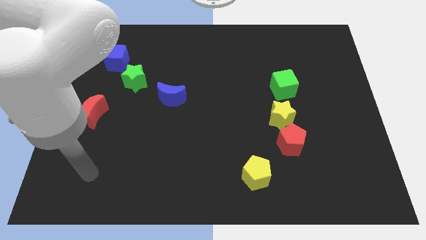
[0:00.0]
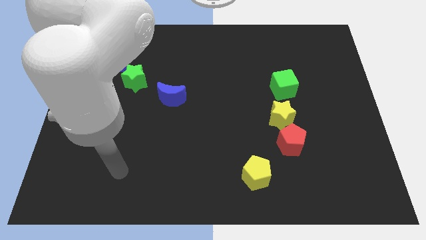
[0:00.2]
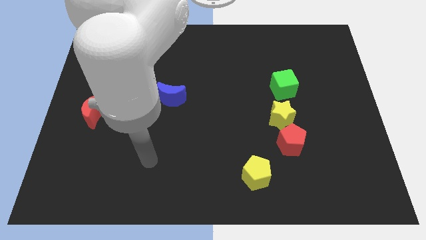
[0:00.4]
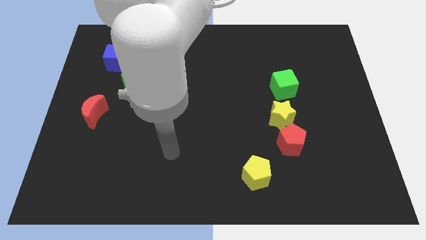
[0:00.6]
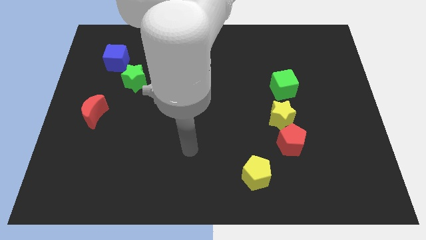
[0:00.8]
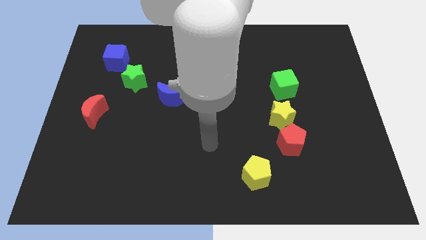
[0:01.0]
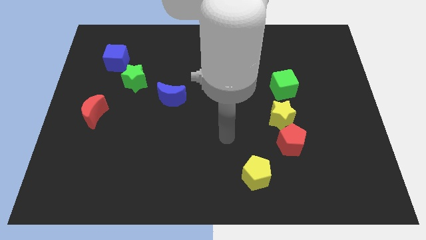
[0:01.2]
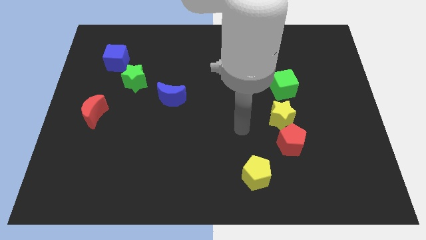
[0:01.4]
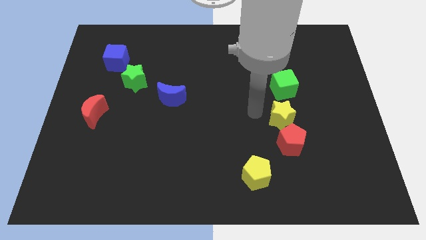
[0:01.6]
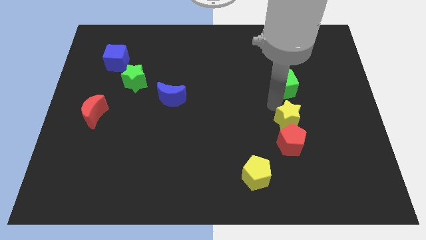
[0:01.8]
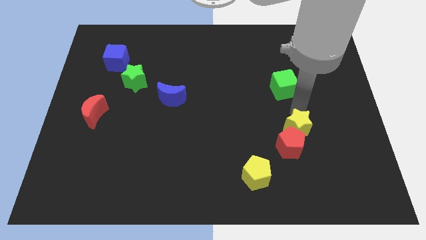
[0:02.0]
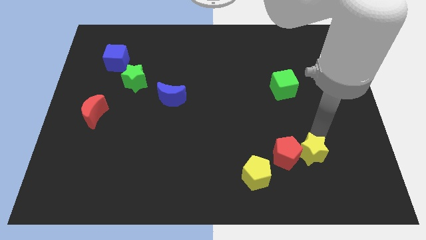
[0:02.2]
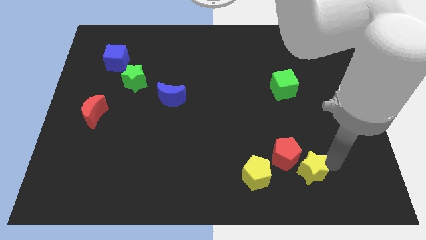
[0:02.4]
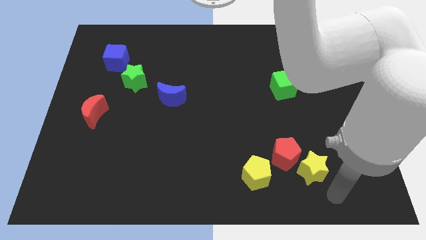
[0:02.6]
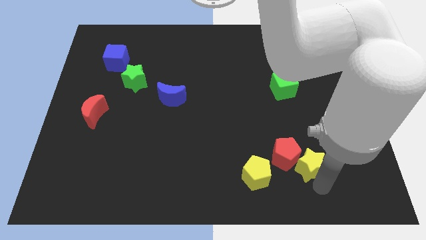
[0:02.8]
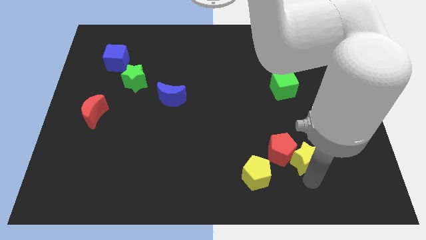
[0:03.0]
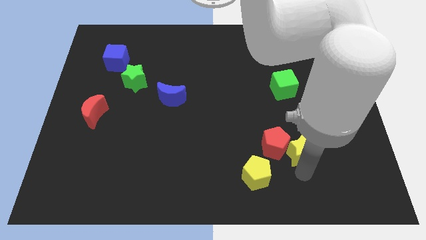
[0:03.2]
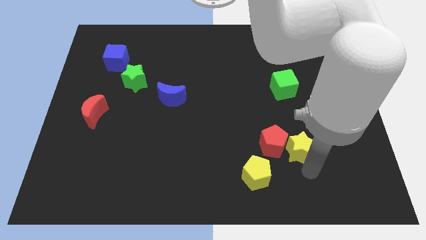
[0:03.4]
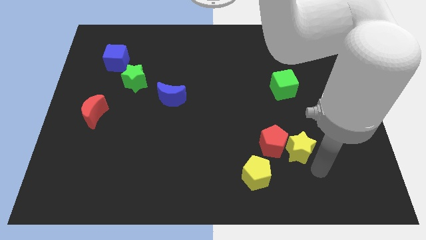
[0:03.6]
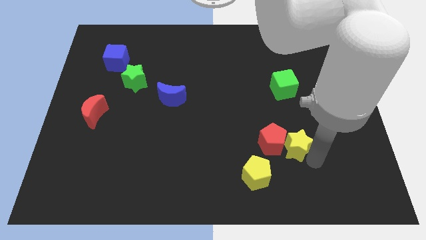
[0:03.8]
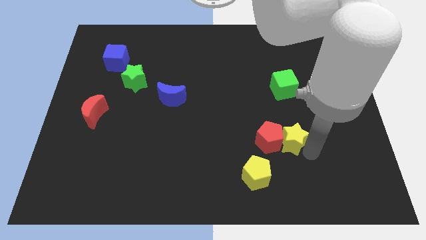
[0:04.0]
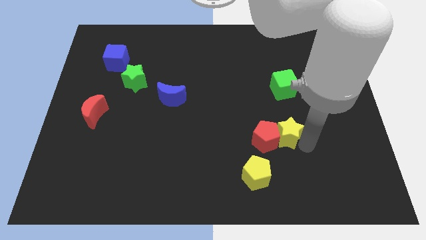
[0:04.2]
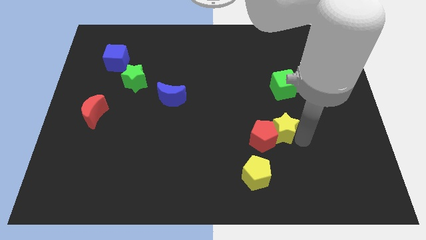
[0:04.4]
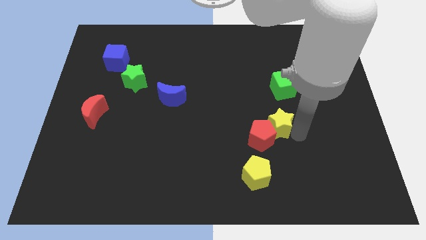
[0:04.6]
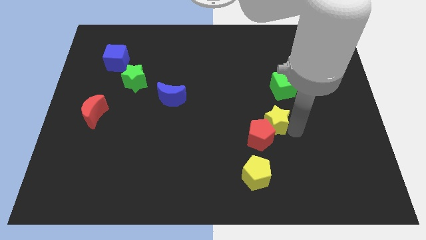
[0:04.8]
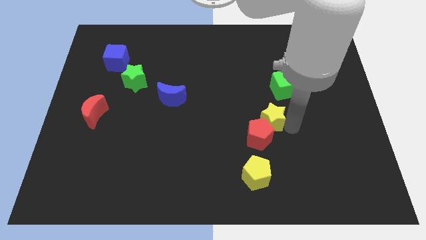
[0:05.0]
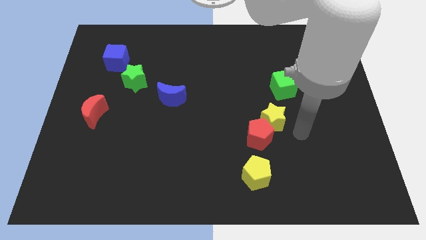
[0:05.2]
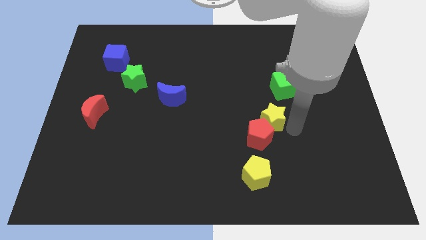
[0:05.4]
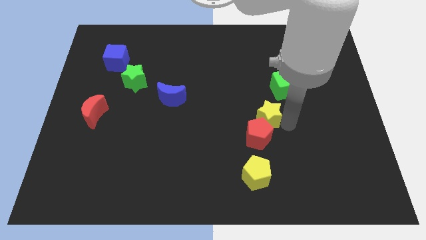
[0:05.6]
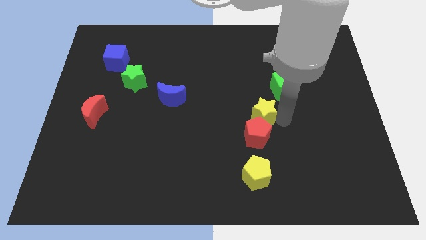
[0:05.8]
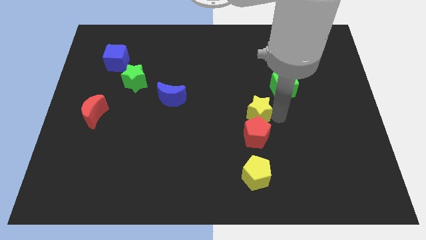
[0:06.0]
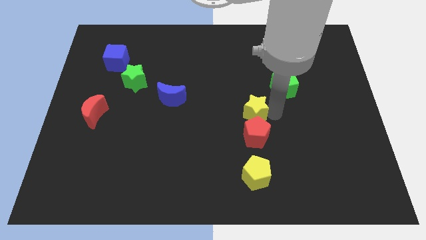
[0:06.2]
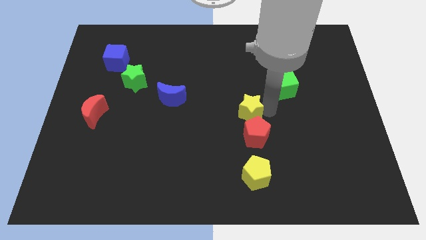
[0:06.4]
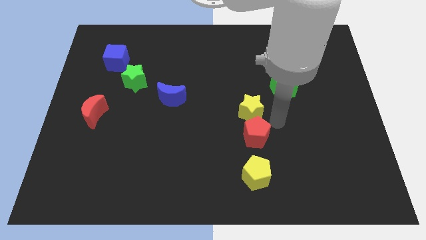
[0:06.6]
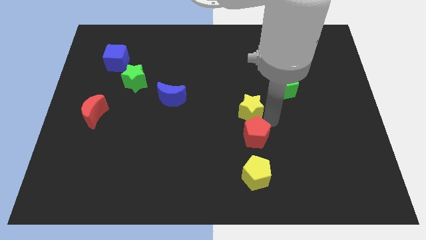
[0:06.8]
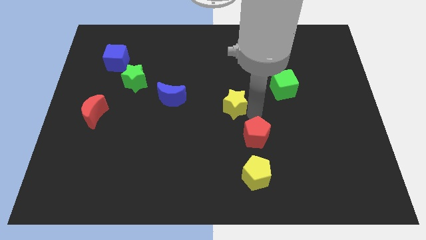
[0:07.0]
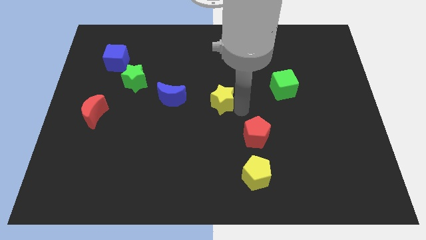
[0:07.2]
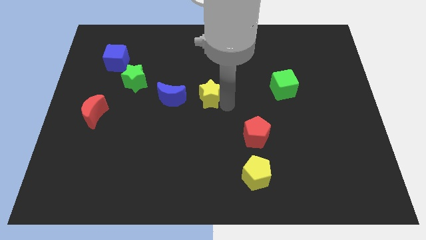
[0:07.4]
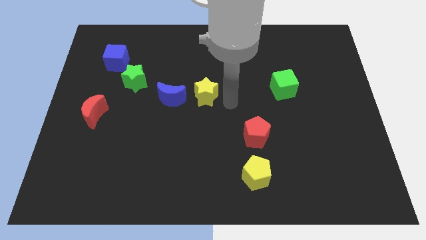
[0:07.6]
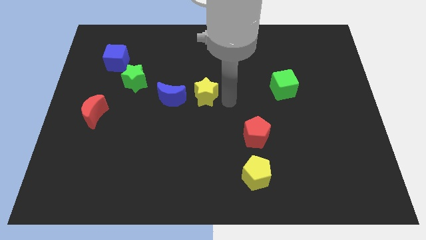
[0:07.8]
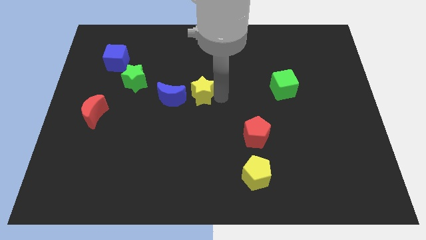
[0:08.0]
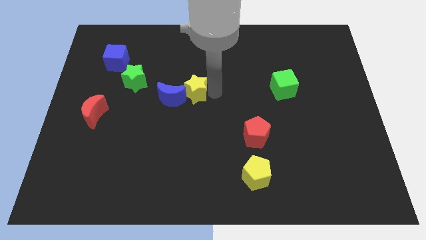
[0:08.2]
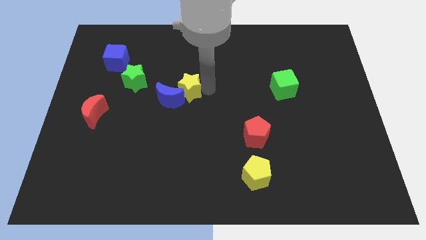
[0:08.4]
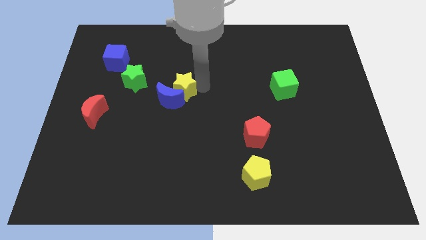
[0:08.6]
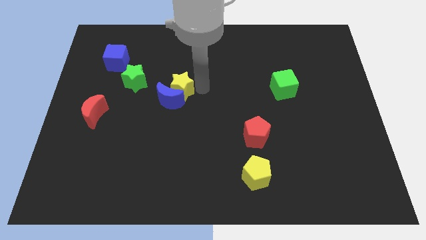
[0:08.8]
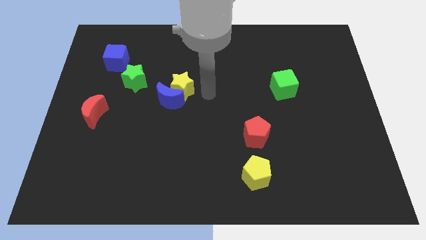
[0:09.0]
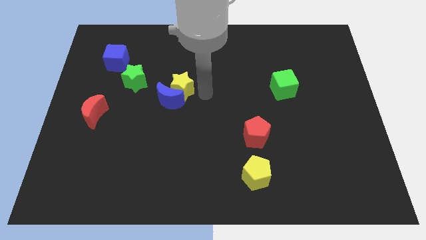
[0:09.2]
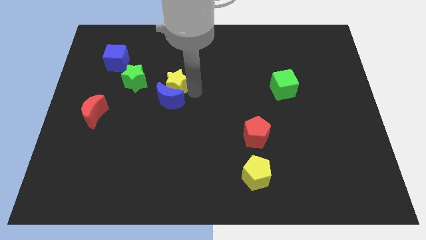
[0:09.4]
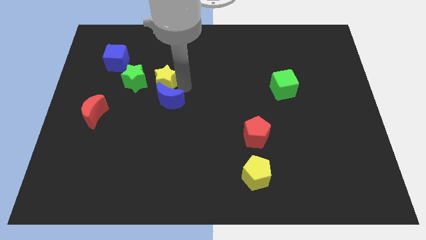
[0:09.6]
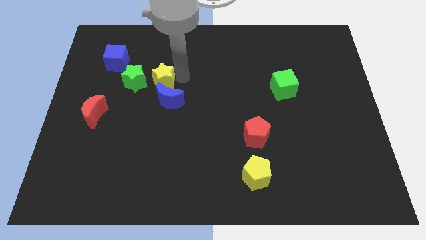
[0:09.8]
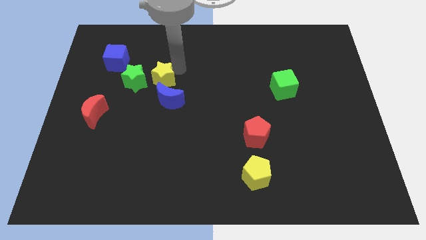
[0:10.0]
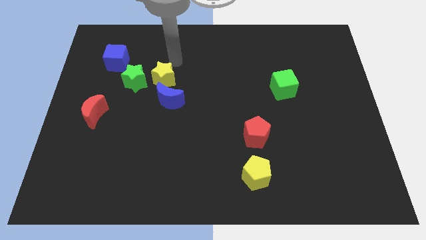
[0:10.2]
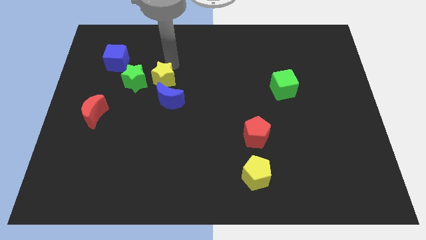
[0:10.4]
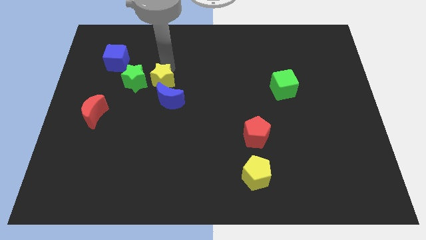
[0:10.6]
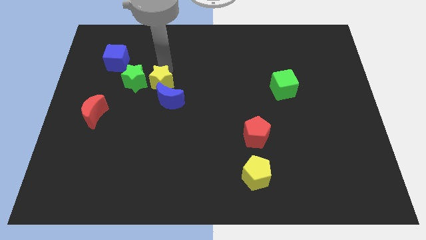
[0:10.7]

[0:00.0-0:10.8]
move the yellow star to the bottom right side of the green star

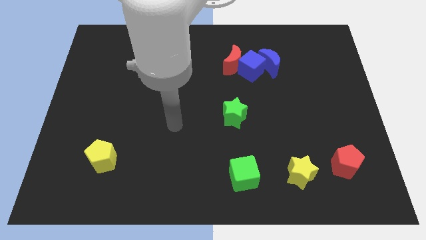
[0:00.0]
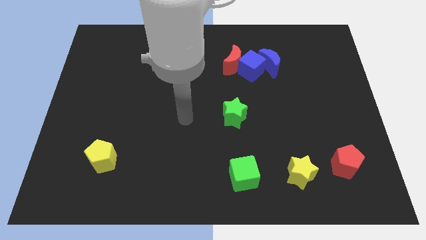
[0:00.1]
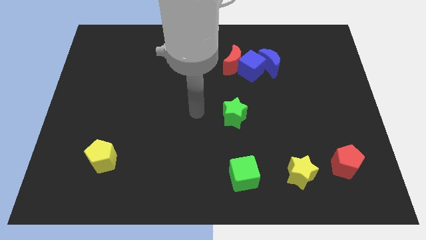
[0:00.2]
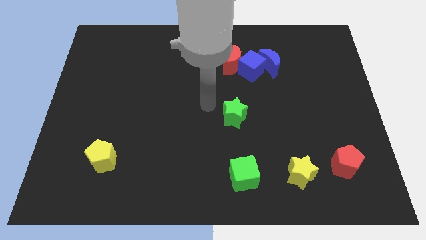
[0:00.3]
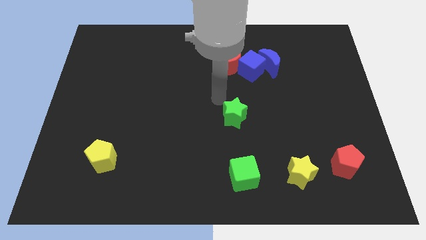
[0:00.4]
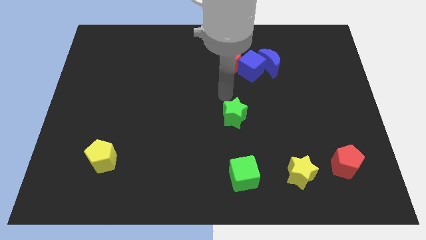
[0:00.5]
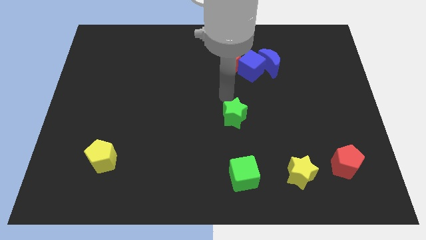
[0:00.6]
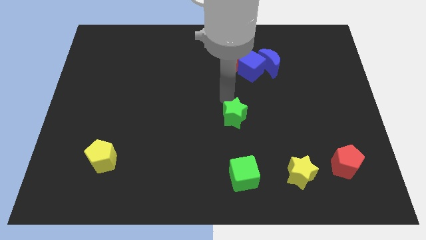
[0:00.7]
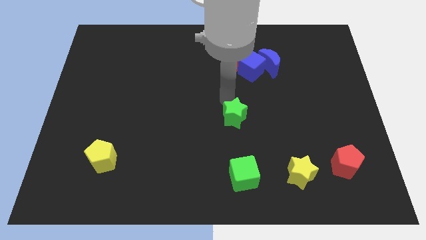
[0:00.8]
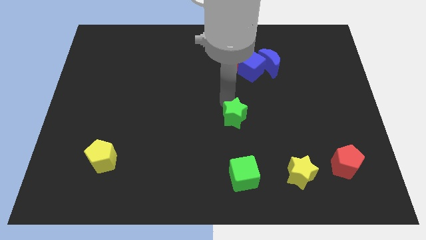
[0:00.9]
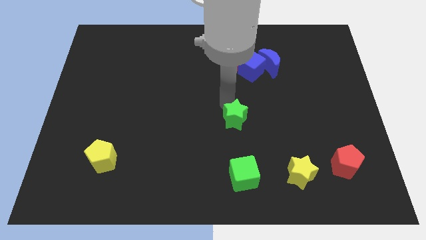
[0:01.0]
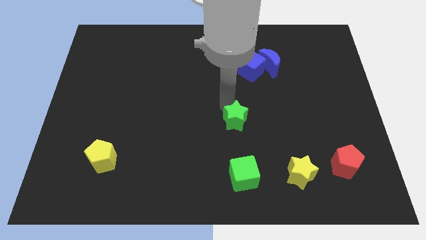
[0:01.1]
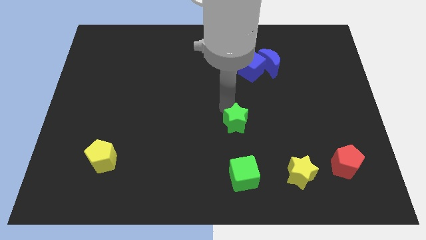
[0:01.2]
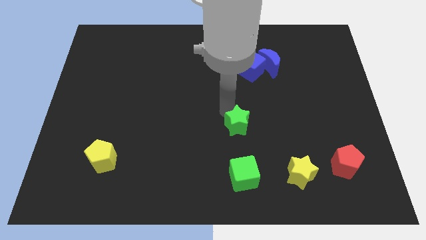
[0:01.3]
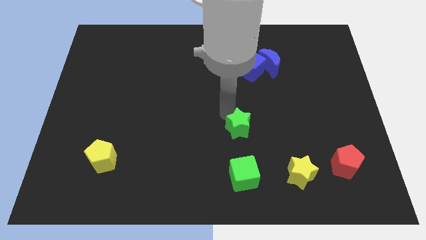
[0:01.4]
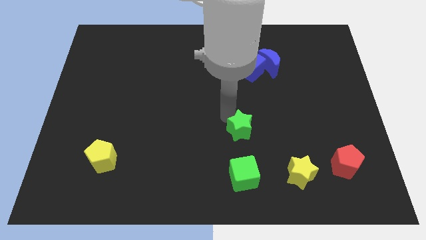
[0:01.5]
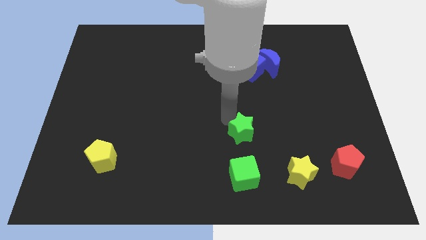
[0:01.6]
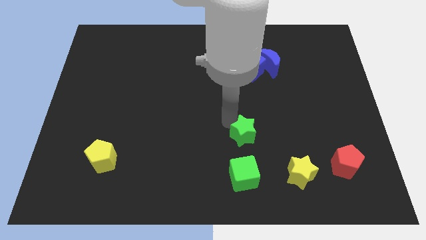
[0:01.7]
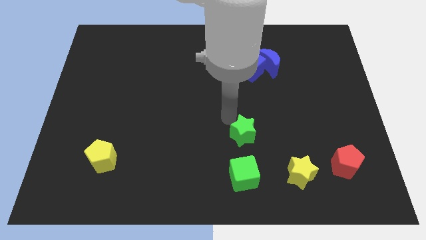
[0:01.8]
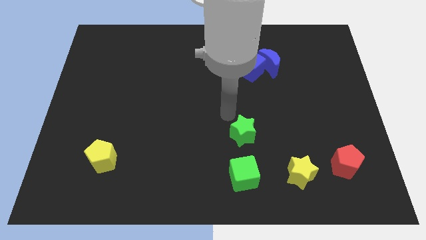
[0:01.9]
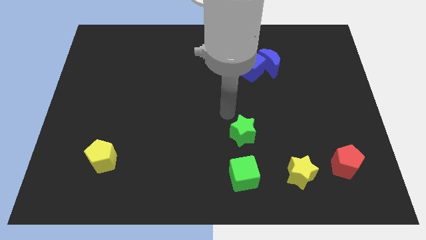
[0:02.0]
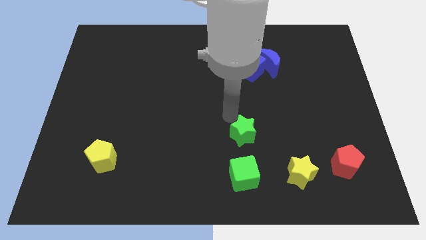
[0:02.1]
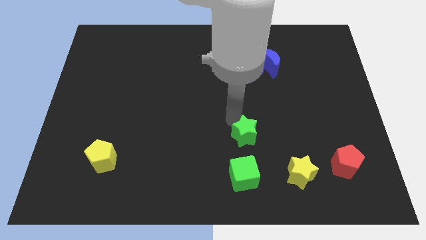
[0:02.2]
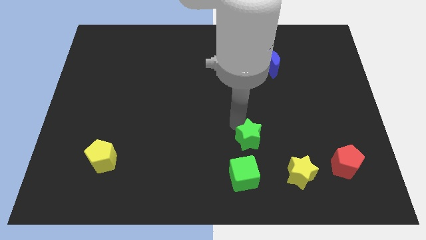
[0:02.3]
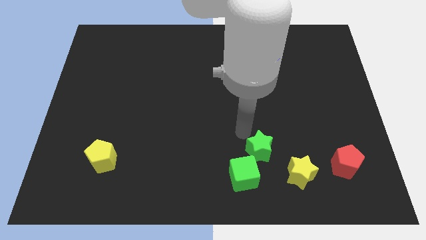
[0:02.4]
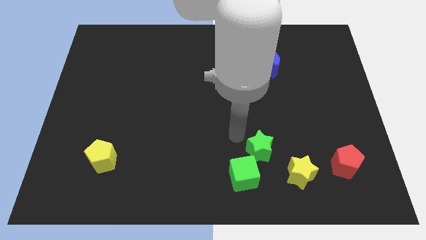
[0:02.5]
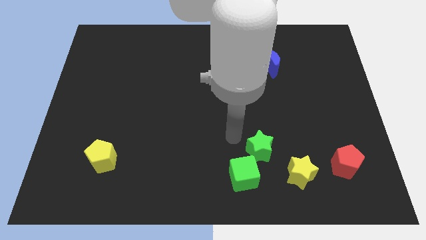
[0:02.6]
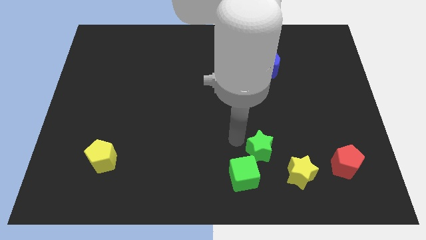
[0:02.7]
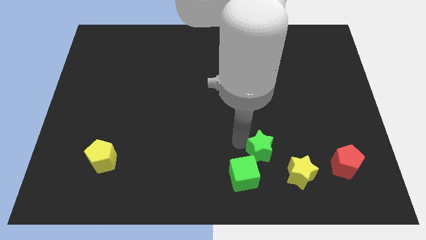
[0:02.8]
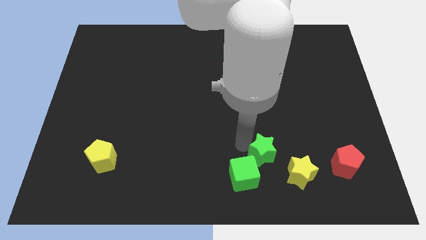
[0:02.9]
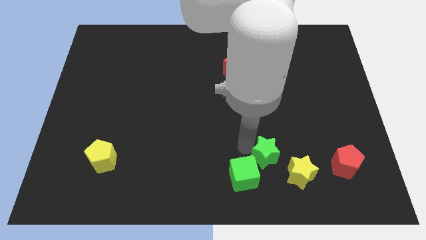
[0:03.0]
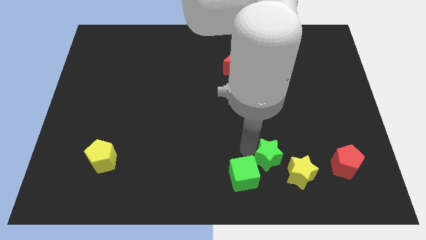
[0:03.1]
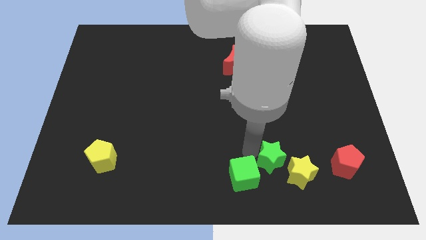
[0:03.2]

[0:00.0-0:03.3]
move the green star to the left side of the red pentagon
